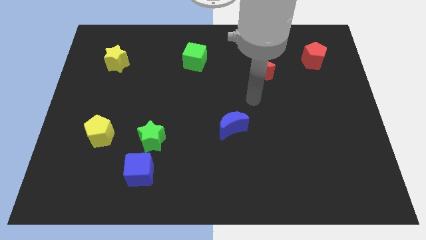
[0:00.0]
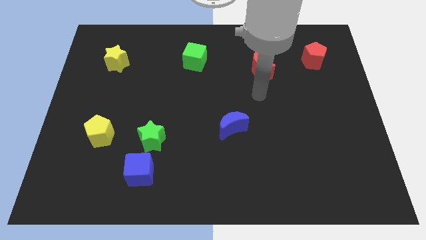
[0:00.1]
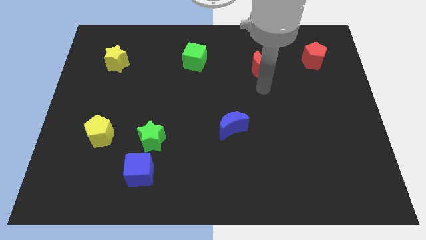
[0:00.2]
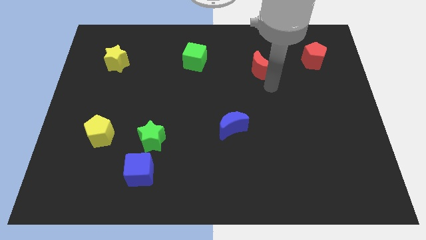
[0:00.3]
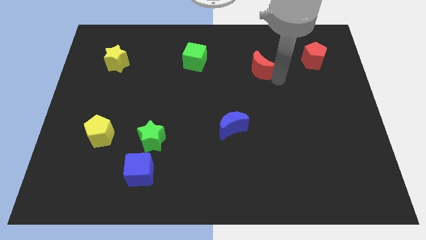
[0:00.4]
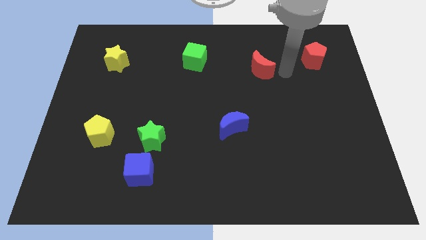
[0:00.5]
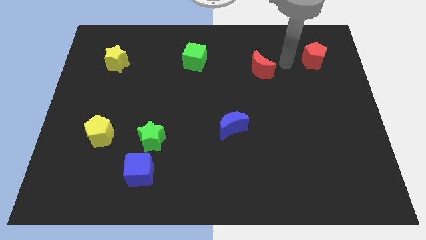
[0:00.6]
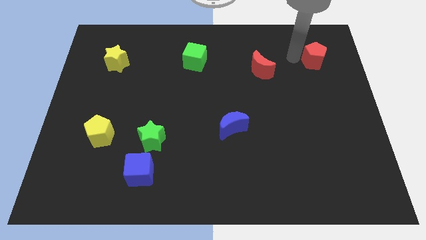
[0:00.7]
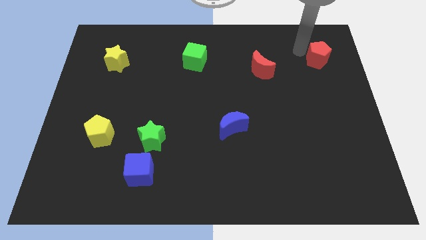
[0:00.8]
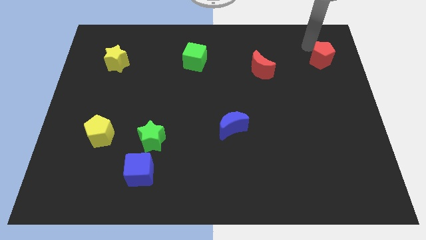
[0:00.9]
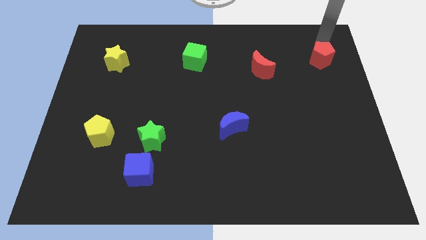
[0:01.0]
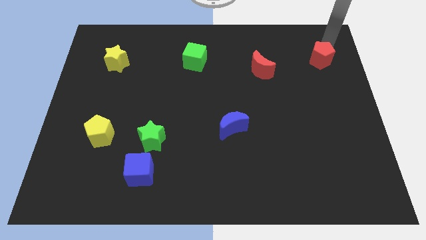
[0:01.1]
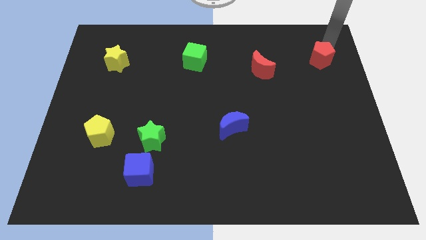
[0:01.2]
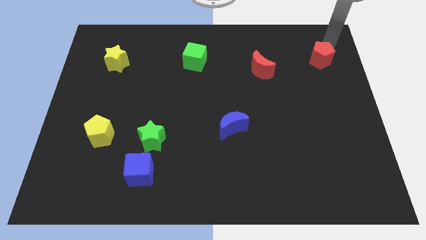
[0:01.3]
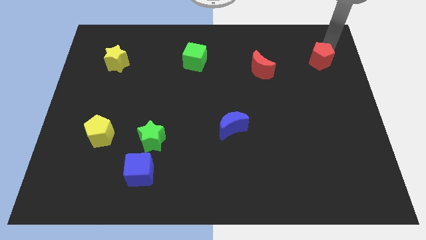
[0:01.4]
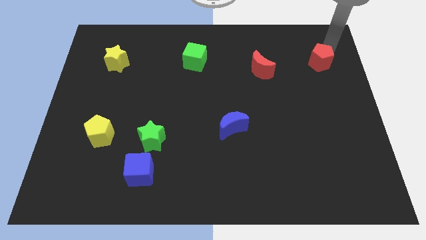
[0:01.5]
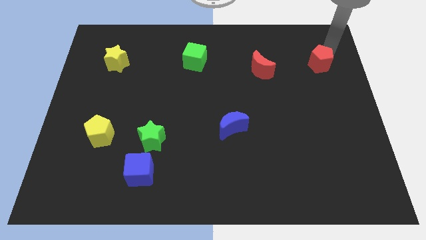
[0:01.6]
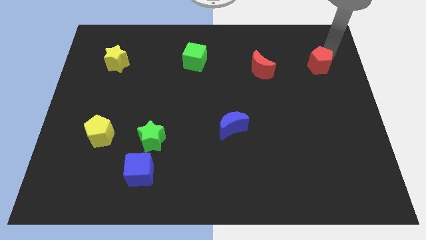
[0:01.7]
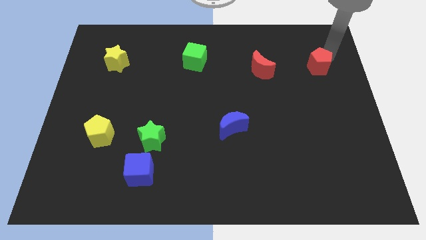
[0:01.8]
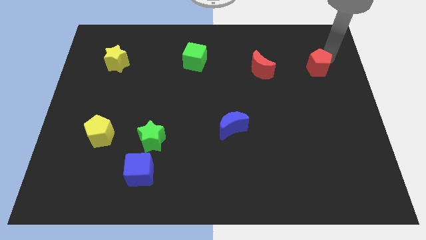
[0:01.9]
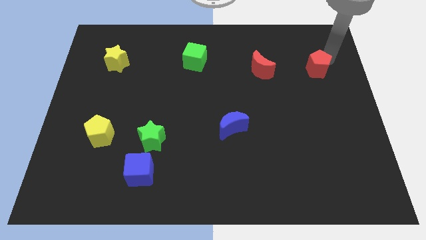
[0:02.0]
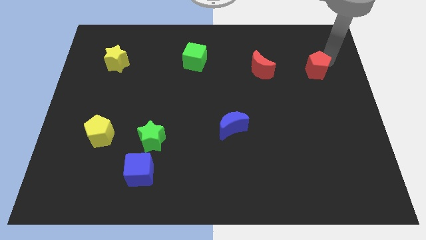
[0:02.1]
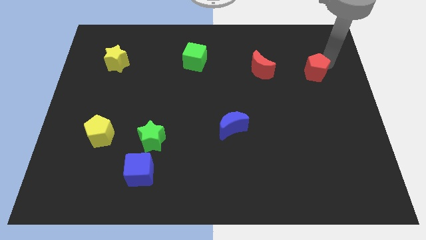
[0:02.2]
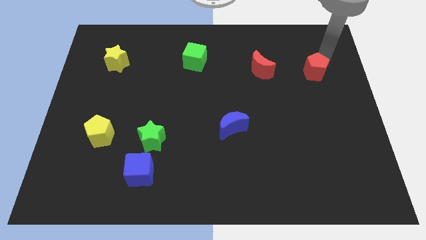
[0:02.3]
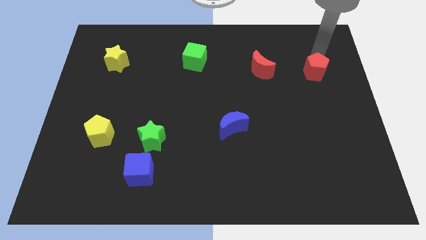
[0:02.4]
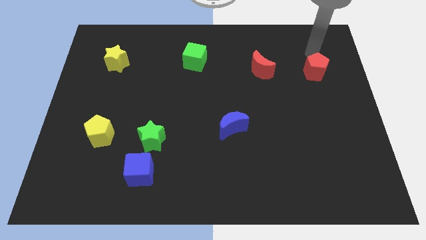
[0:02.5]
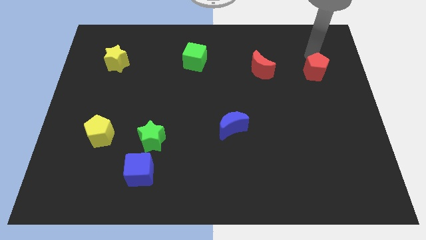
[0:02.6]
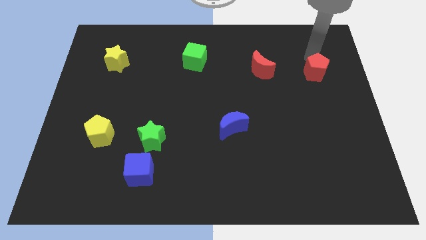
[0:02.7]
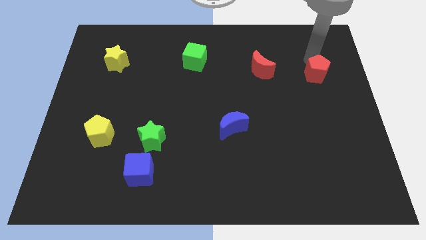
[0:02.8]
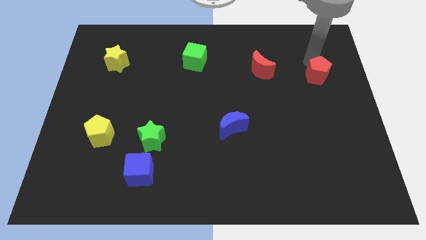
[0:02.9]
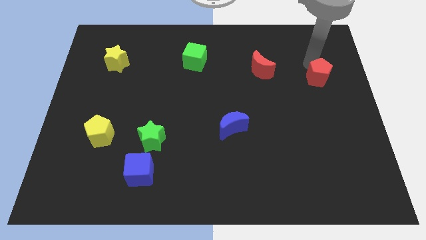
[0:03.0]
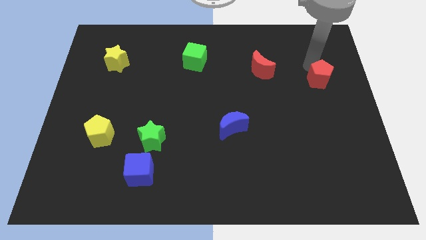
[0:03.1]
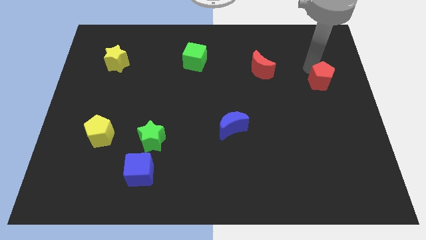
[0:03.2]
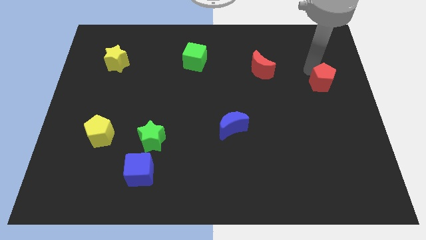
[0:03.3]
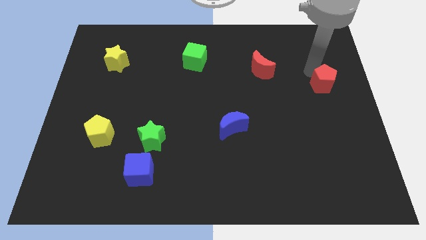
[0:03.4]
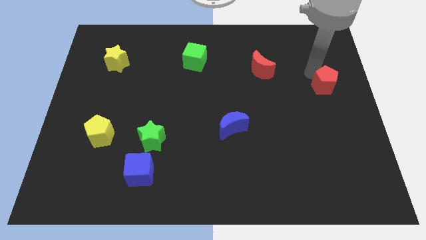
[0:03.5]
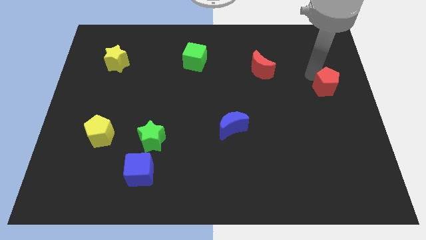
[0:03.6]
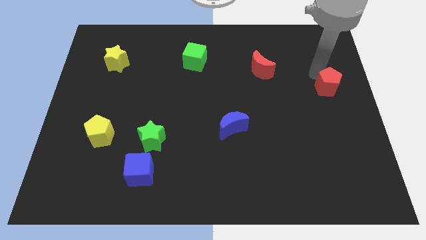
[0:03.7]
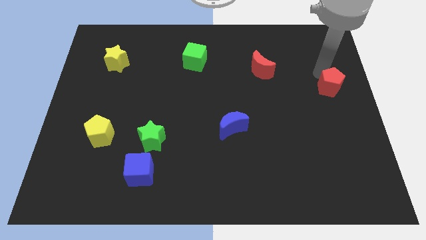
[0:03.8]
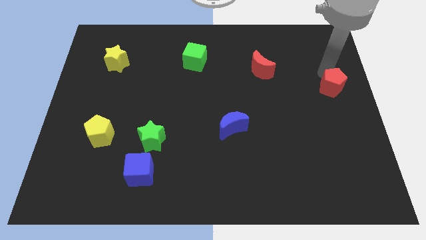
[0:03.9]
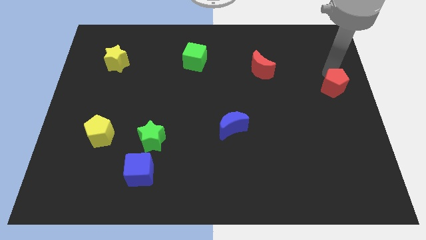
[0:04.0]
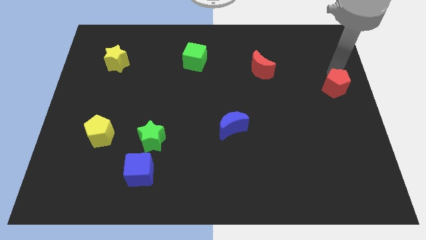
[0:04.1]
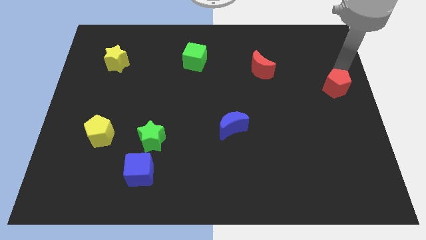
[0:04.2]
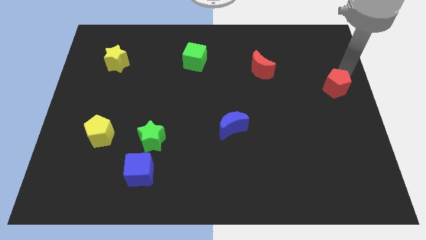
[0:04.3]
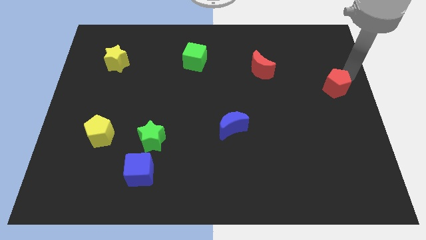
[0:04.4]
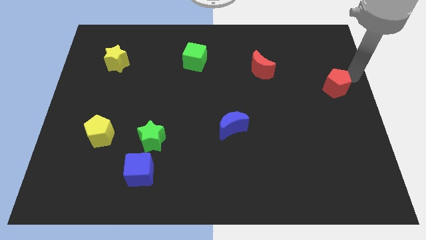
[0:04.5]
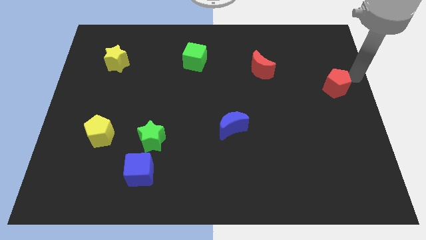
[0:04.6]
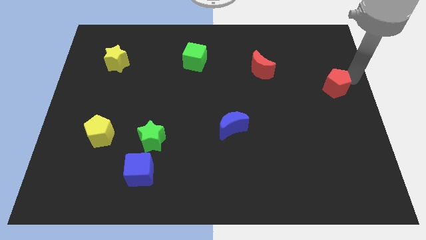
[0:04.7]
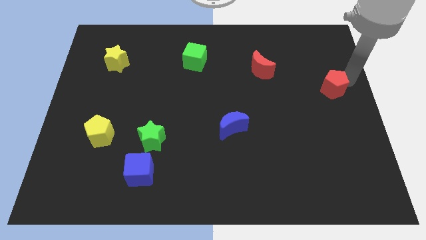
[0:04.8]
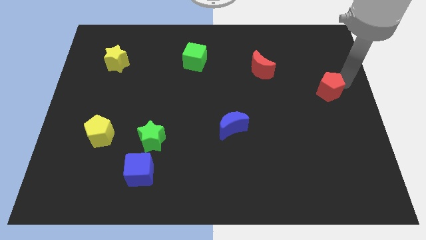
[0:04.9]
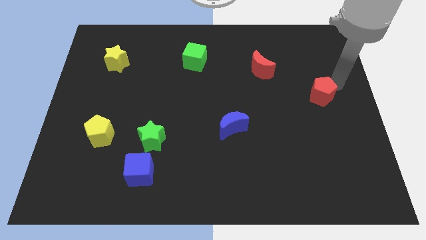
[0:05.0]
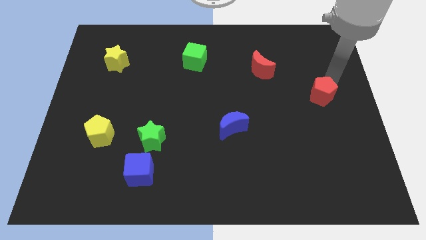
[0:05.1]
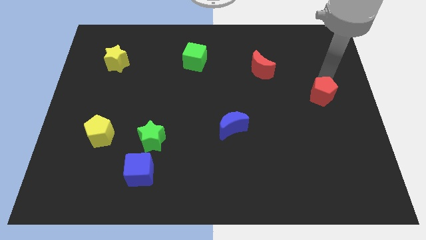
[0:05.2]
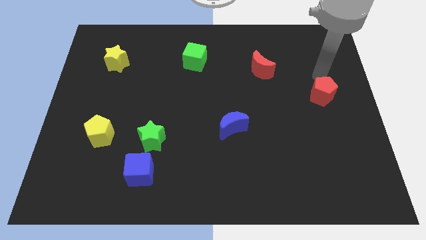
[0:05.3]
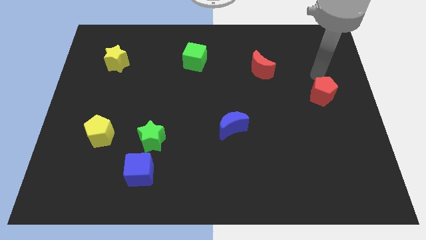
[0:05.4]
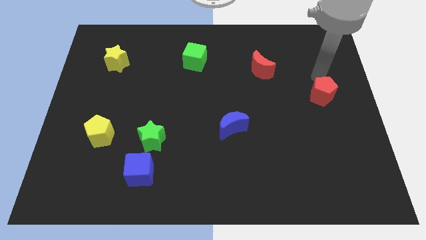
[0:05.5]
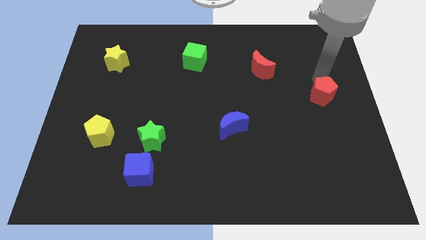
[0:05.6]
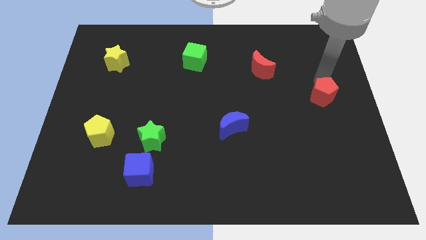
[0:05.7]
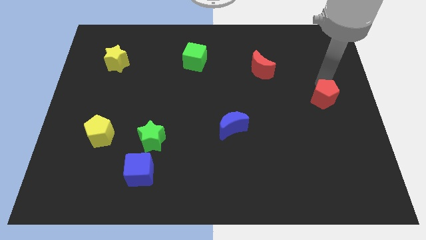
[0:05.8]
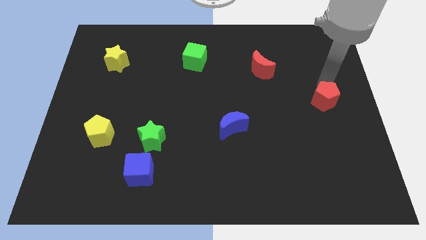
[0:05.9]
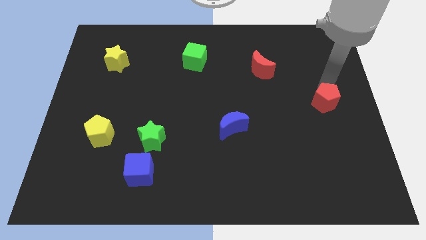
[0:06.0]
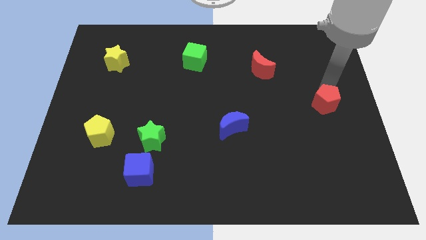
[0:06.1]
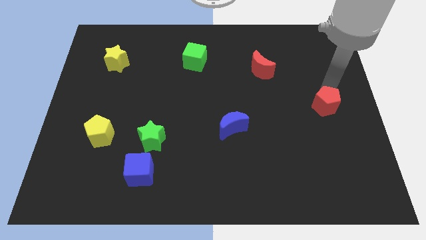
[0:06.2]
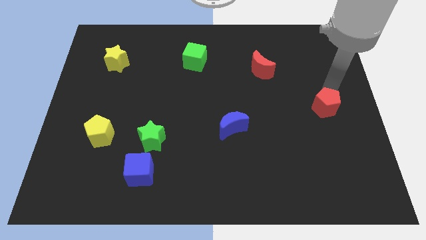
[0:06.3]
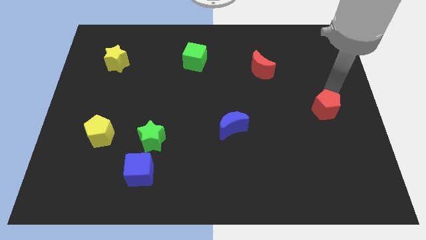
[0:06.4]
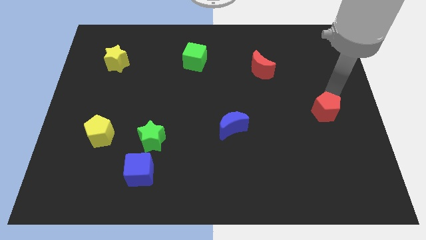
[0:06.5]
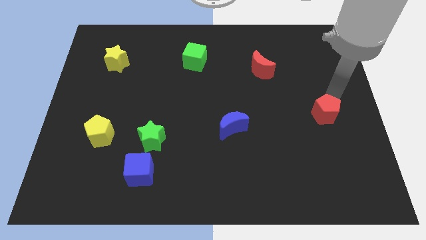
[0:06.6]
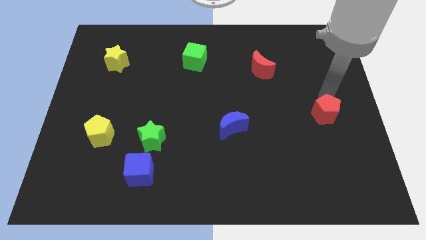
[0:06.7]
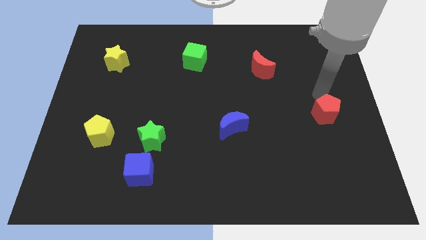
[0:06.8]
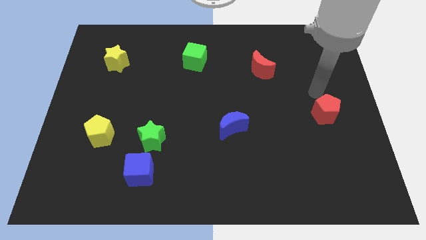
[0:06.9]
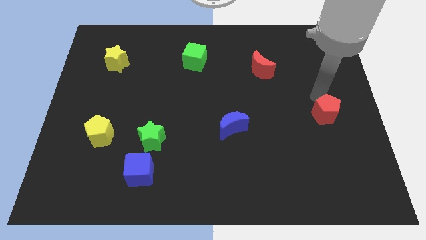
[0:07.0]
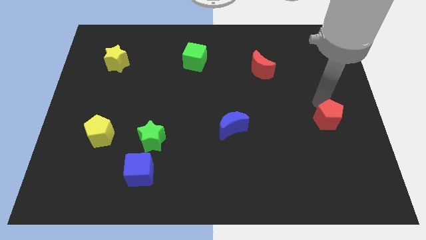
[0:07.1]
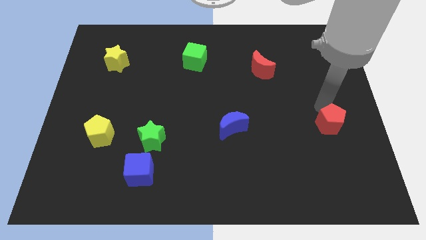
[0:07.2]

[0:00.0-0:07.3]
move the red pentagon down

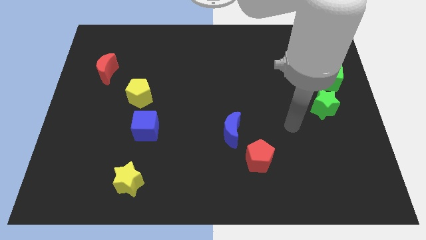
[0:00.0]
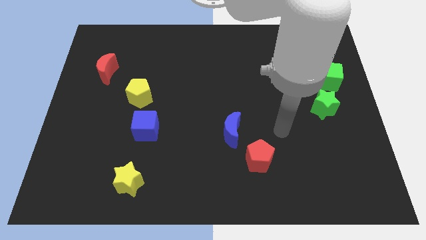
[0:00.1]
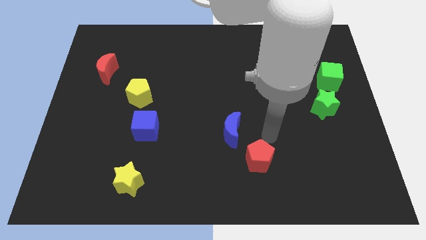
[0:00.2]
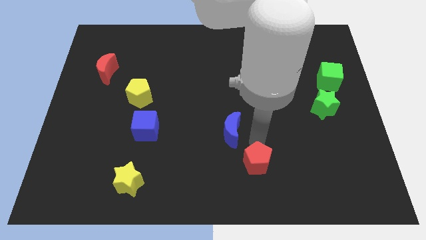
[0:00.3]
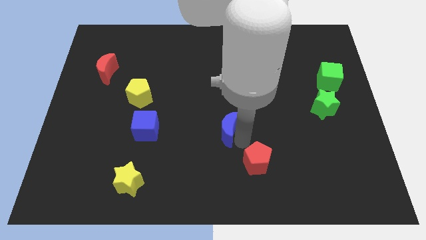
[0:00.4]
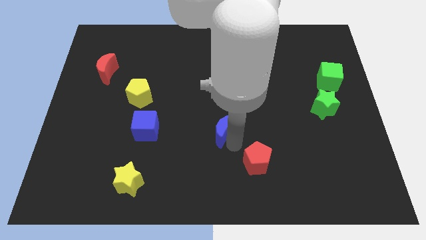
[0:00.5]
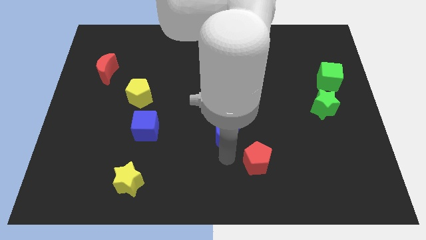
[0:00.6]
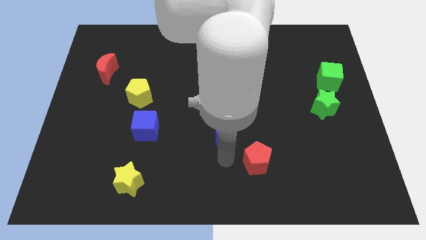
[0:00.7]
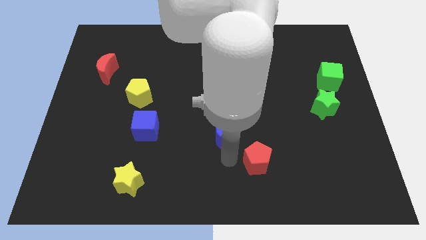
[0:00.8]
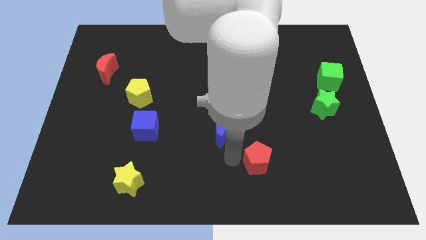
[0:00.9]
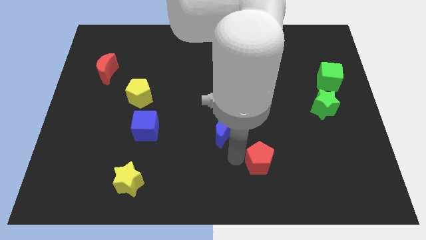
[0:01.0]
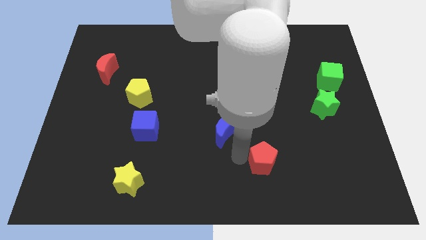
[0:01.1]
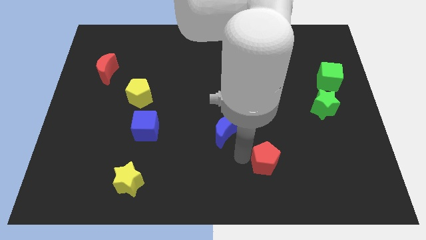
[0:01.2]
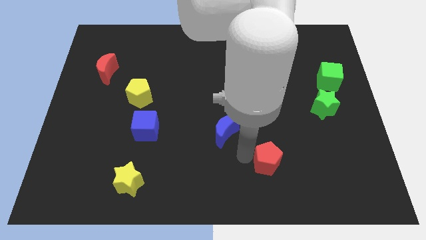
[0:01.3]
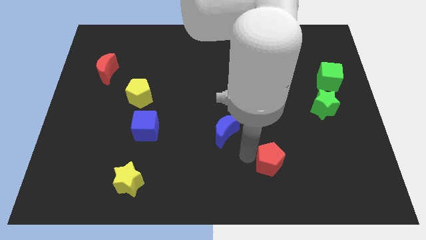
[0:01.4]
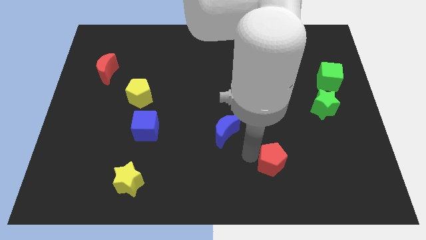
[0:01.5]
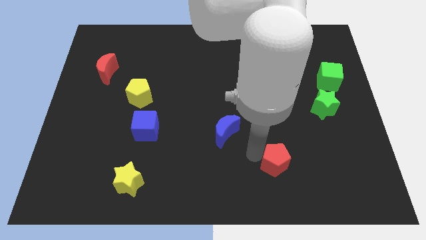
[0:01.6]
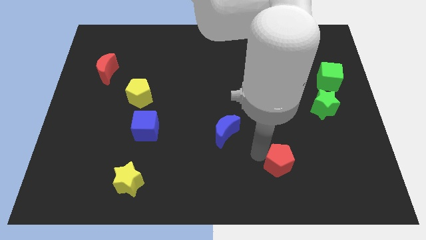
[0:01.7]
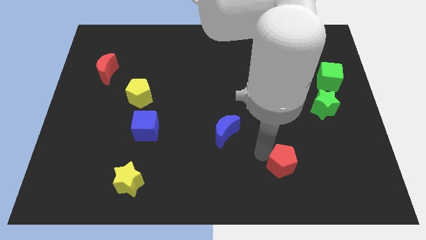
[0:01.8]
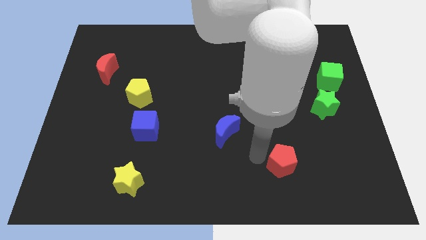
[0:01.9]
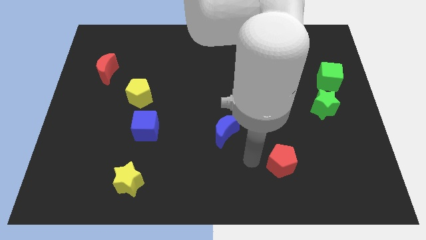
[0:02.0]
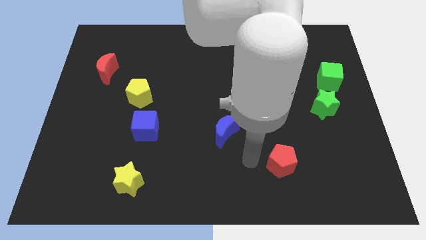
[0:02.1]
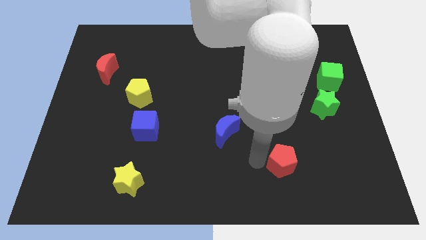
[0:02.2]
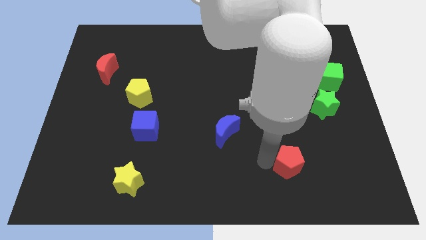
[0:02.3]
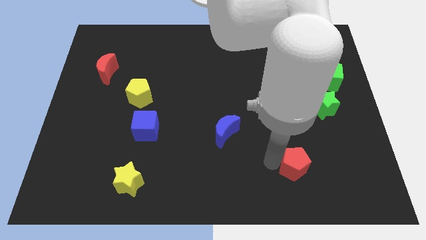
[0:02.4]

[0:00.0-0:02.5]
move the red pentagon a little right
